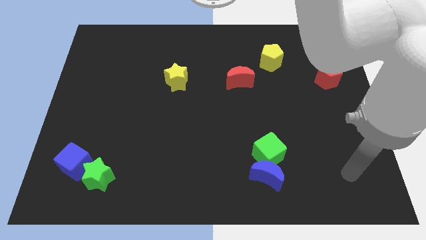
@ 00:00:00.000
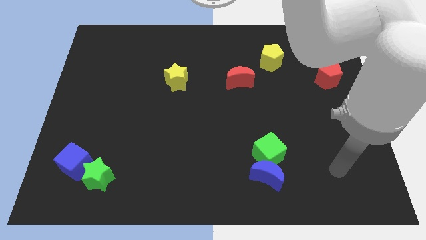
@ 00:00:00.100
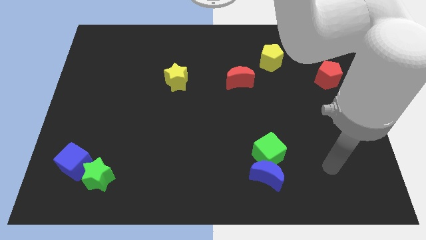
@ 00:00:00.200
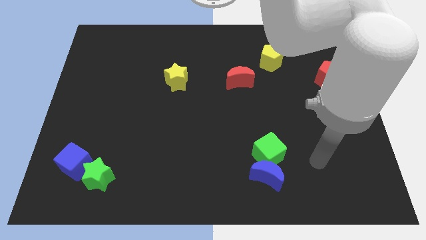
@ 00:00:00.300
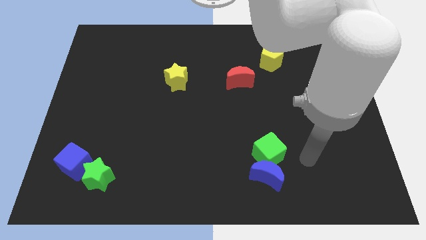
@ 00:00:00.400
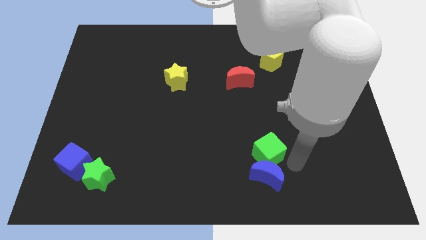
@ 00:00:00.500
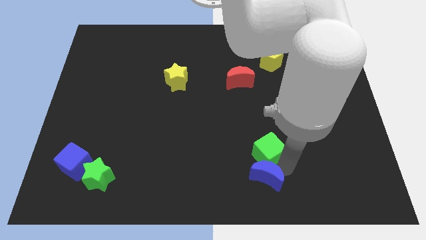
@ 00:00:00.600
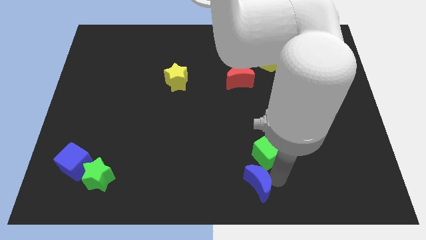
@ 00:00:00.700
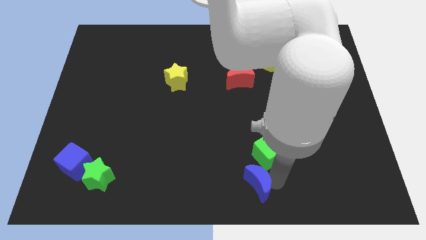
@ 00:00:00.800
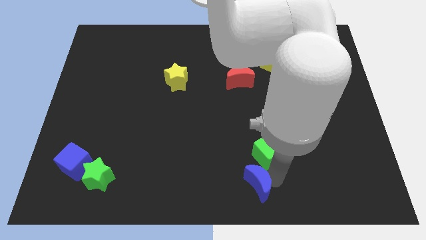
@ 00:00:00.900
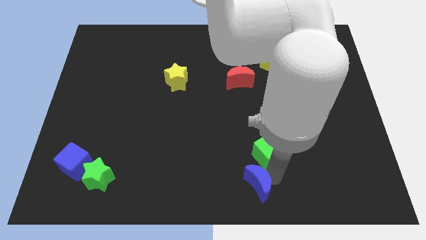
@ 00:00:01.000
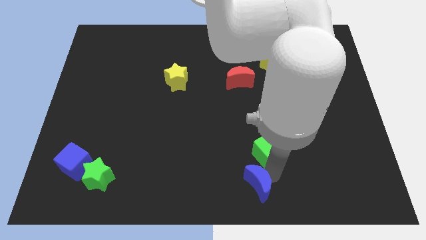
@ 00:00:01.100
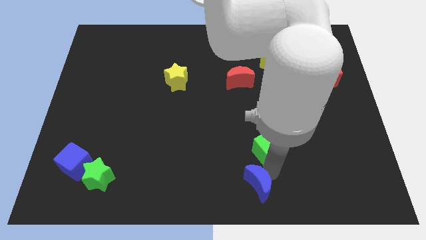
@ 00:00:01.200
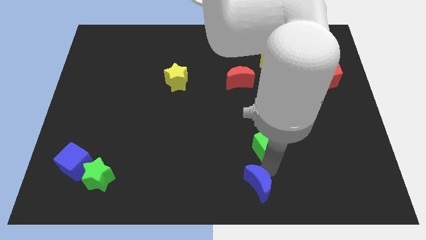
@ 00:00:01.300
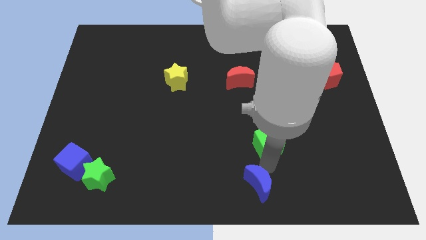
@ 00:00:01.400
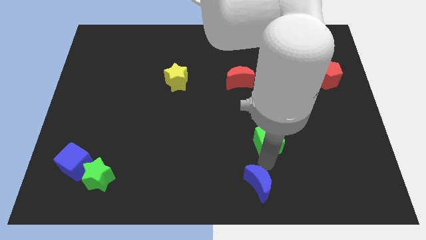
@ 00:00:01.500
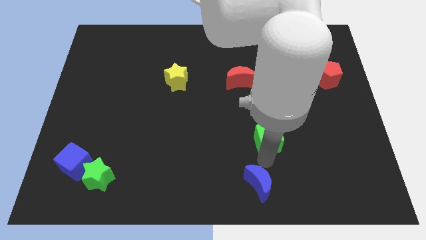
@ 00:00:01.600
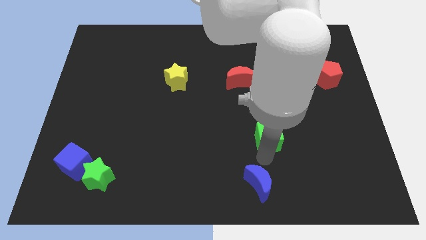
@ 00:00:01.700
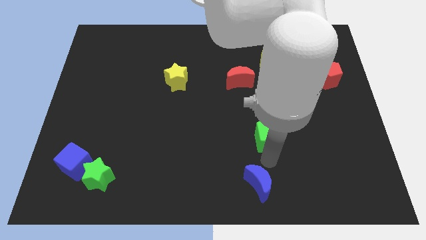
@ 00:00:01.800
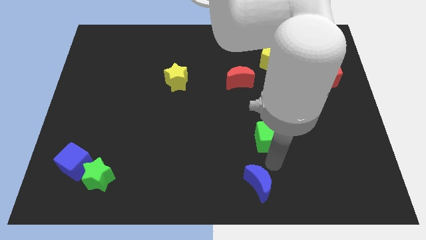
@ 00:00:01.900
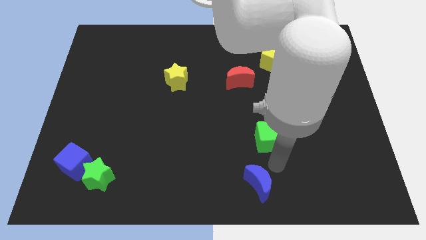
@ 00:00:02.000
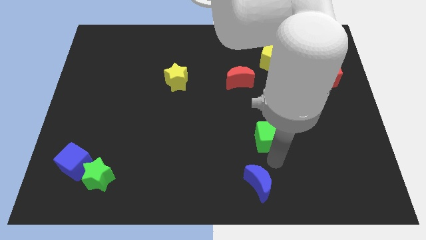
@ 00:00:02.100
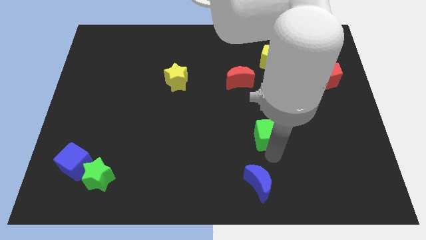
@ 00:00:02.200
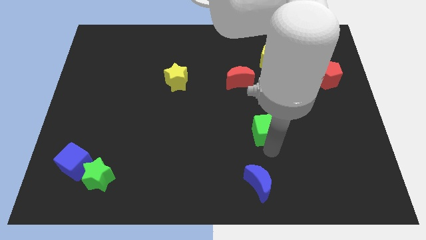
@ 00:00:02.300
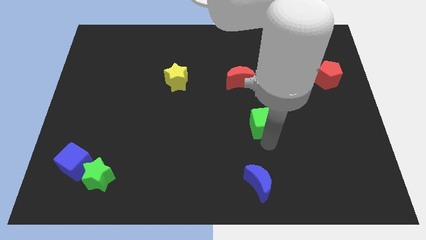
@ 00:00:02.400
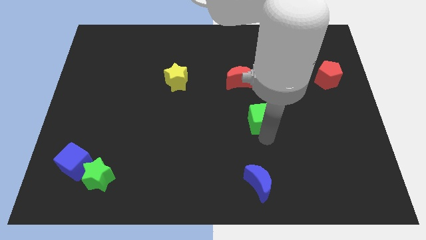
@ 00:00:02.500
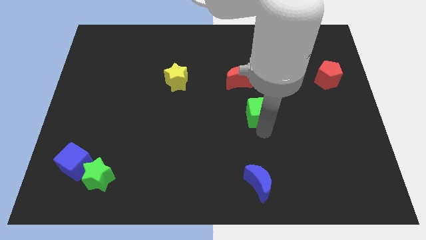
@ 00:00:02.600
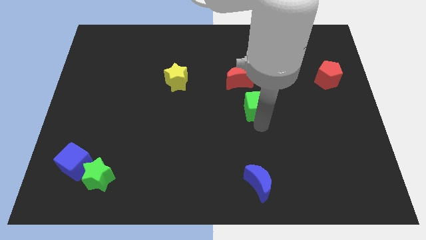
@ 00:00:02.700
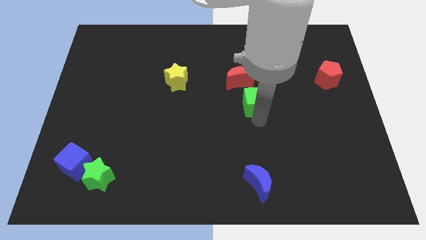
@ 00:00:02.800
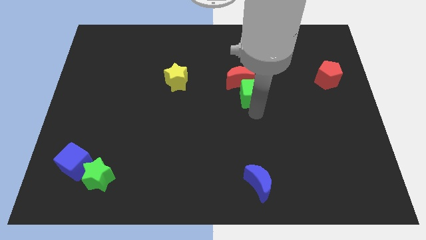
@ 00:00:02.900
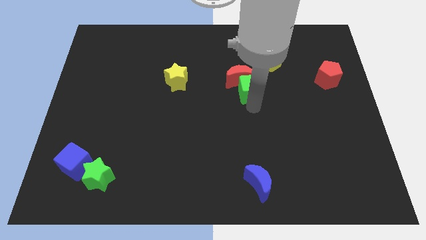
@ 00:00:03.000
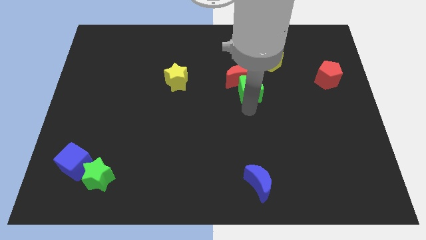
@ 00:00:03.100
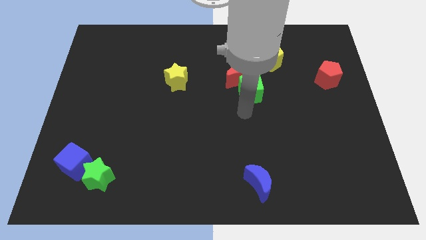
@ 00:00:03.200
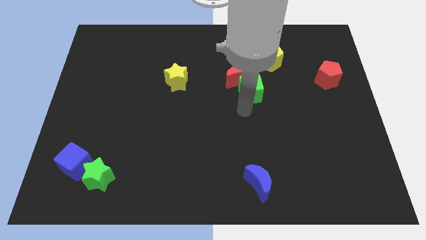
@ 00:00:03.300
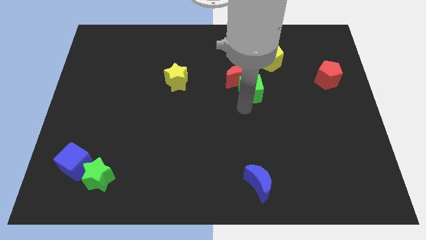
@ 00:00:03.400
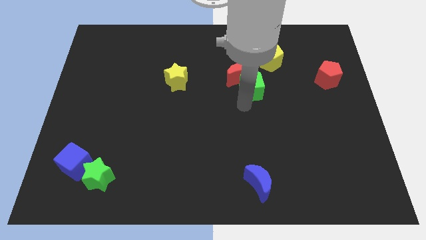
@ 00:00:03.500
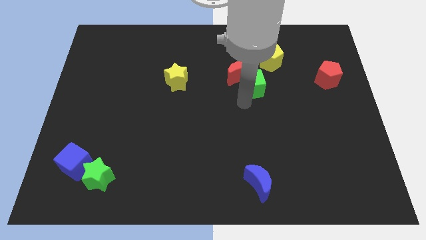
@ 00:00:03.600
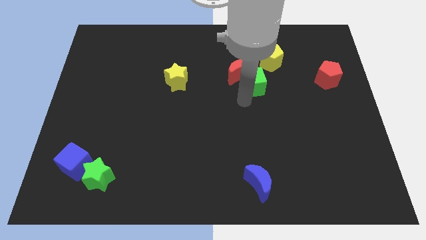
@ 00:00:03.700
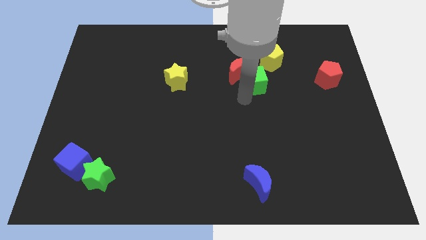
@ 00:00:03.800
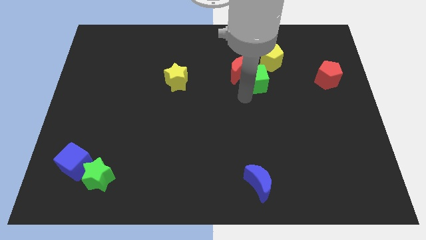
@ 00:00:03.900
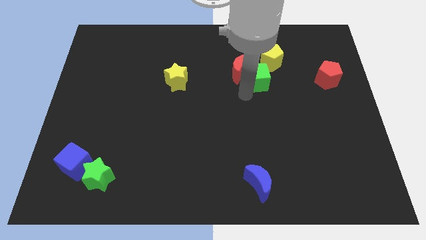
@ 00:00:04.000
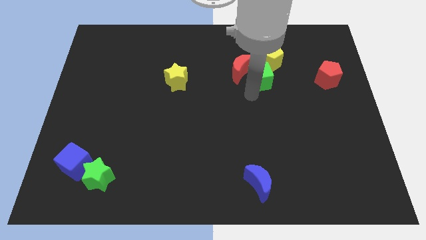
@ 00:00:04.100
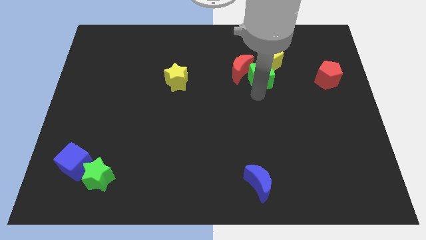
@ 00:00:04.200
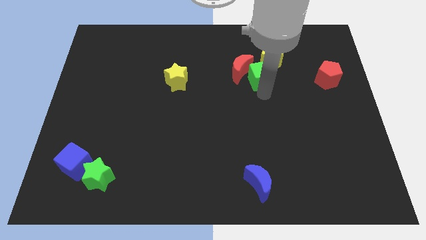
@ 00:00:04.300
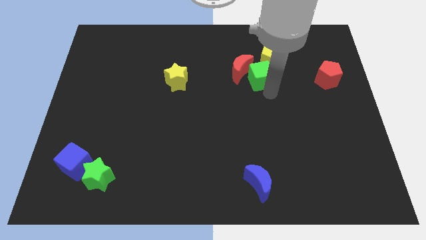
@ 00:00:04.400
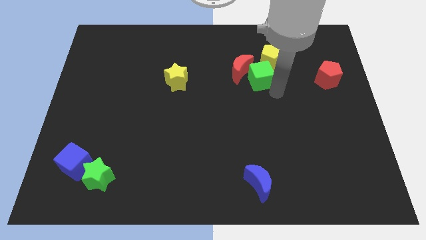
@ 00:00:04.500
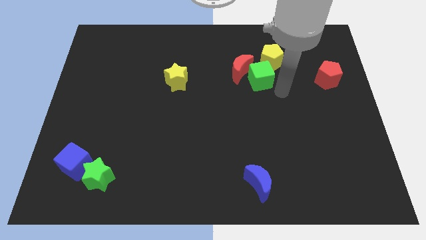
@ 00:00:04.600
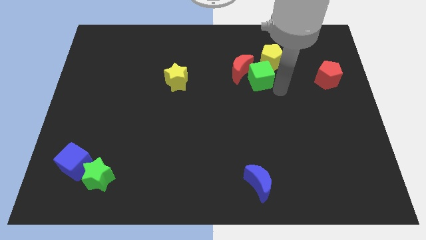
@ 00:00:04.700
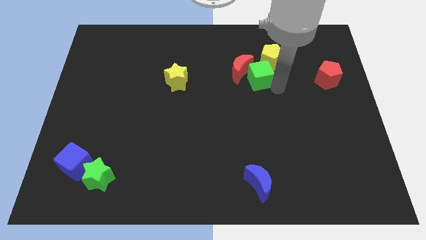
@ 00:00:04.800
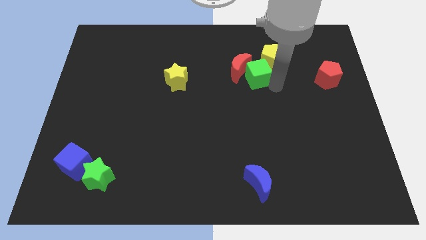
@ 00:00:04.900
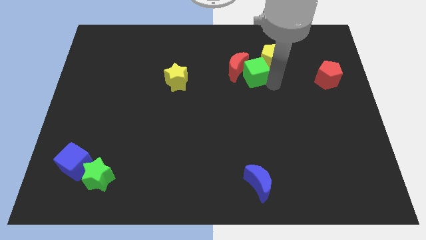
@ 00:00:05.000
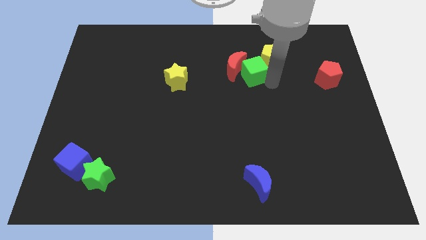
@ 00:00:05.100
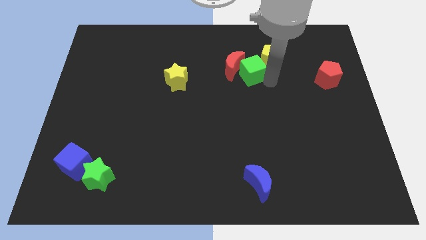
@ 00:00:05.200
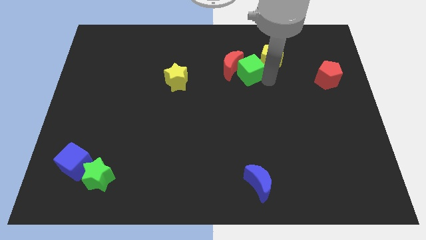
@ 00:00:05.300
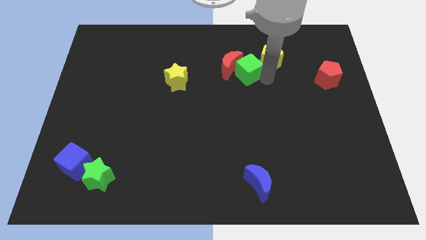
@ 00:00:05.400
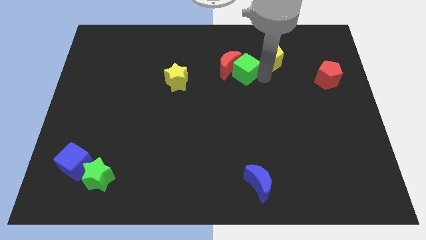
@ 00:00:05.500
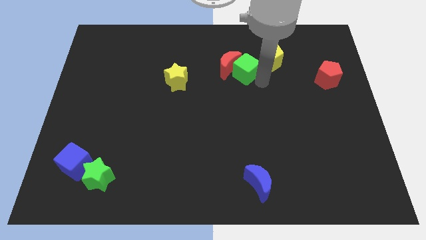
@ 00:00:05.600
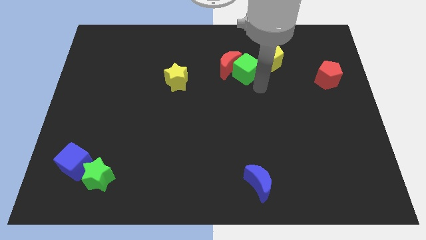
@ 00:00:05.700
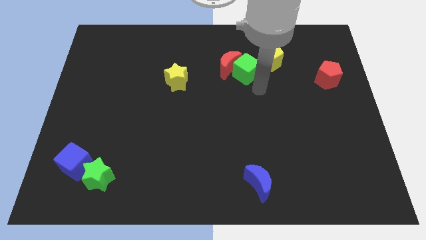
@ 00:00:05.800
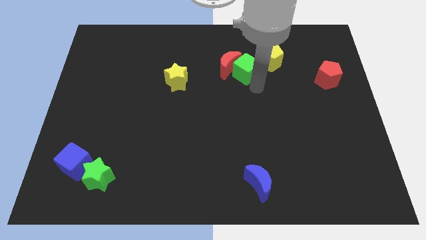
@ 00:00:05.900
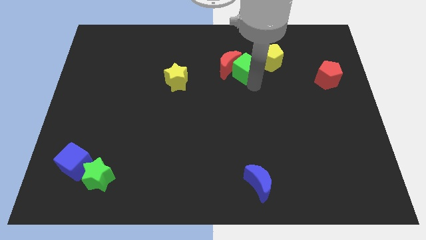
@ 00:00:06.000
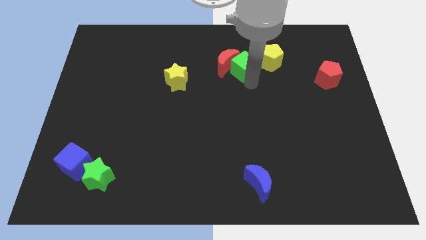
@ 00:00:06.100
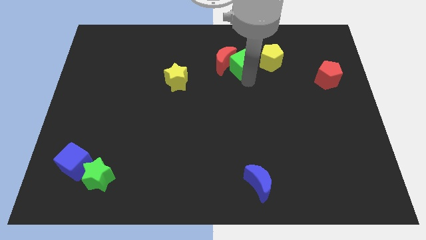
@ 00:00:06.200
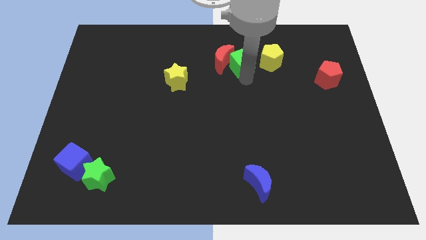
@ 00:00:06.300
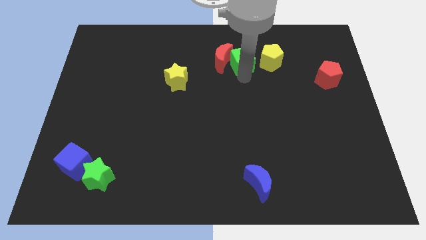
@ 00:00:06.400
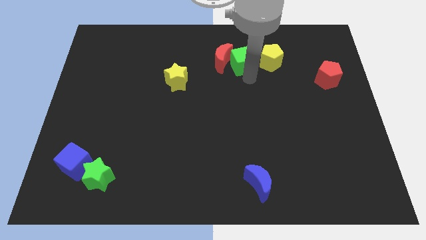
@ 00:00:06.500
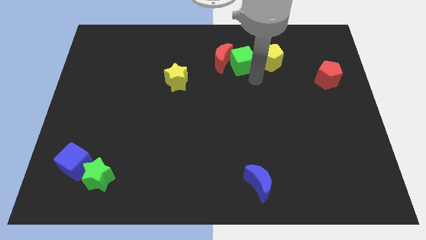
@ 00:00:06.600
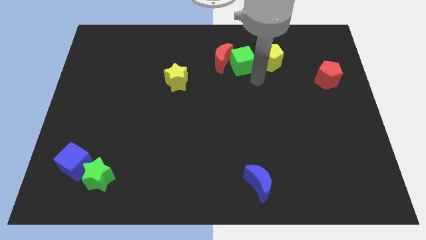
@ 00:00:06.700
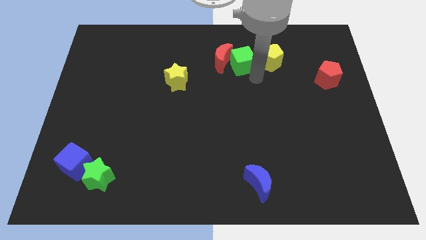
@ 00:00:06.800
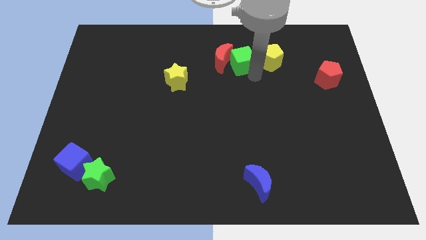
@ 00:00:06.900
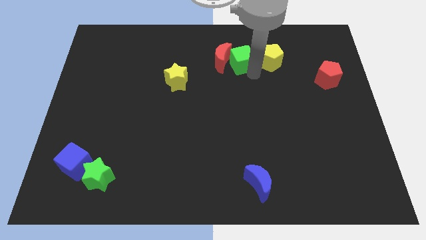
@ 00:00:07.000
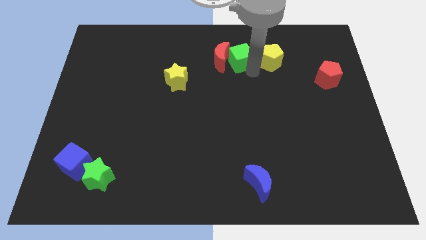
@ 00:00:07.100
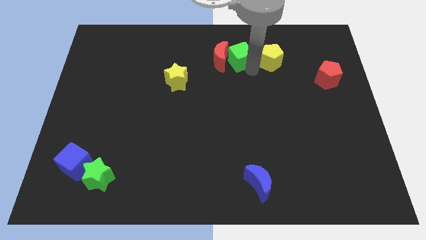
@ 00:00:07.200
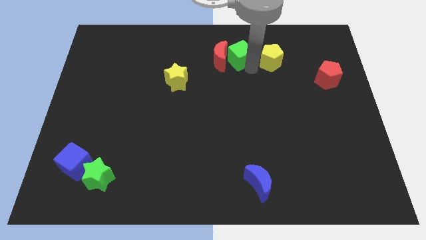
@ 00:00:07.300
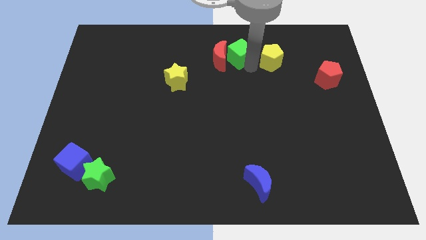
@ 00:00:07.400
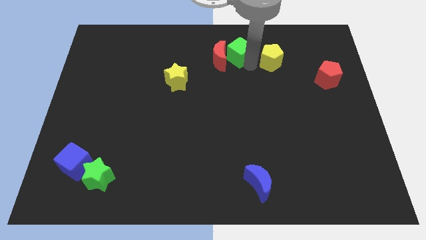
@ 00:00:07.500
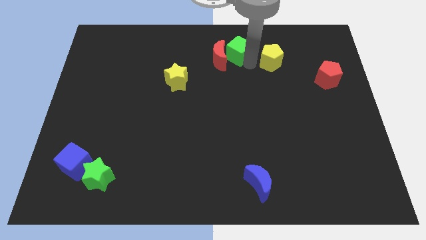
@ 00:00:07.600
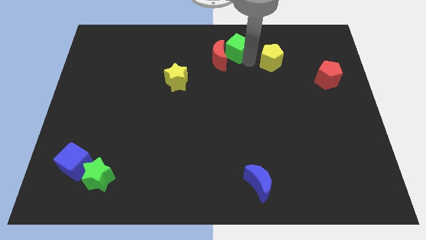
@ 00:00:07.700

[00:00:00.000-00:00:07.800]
push the green cube to the top
